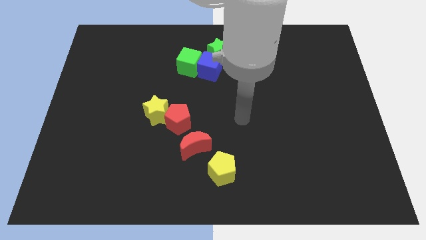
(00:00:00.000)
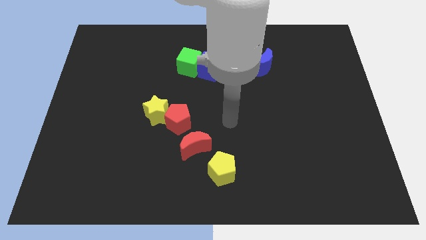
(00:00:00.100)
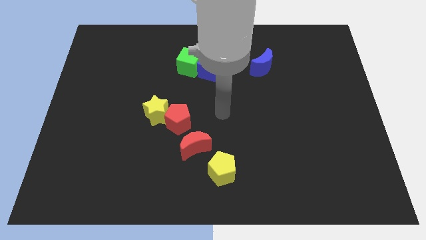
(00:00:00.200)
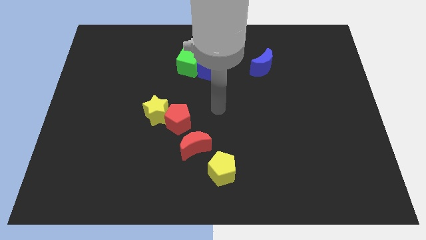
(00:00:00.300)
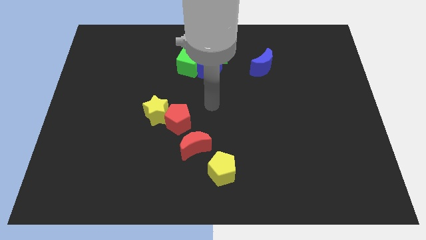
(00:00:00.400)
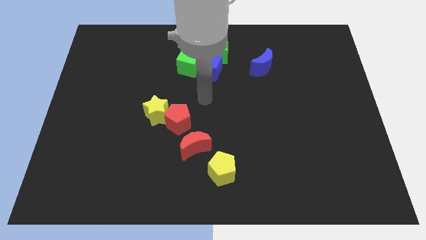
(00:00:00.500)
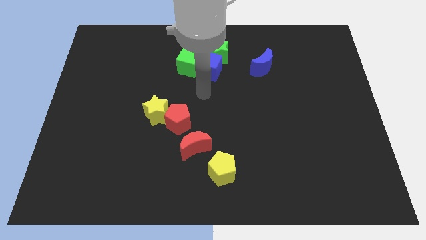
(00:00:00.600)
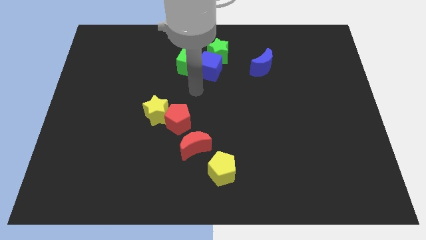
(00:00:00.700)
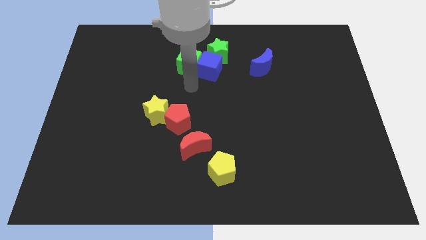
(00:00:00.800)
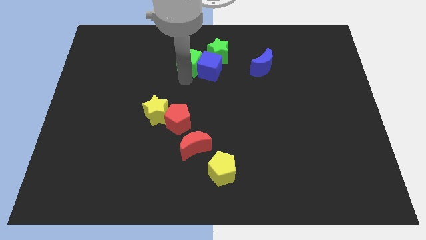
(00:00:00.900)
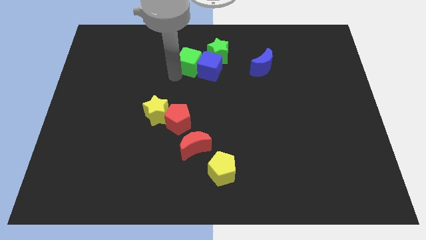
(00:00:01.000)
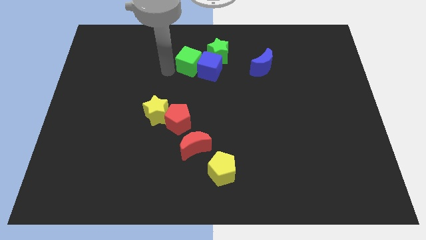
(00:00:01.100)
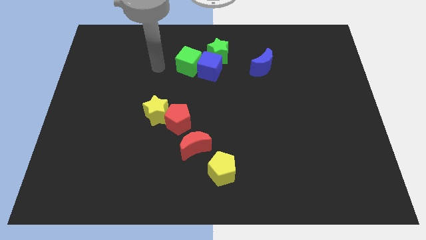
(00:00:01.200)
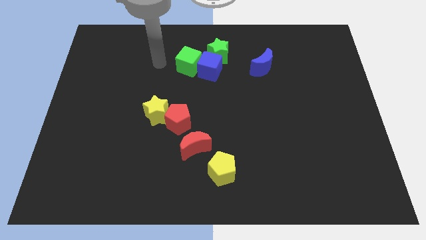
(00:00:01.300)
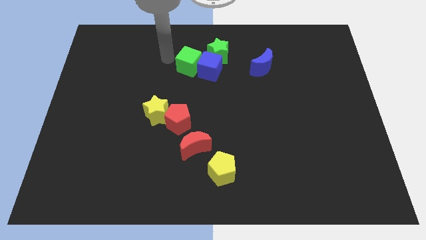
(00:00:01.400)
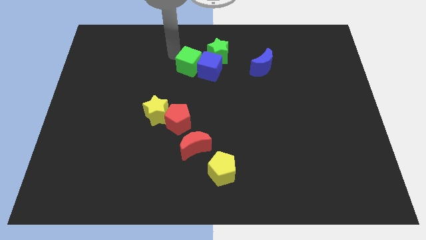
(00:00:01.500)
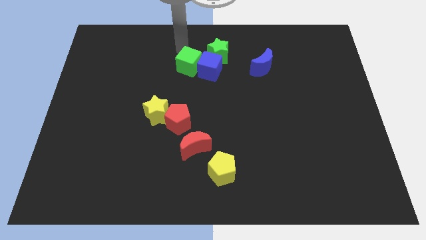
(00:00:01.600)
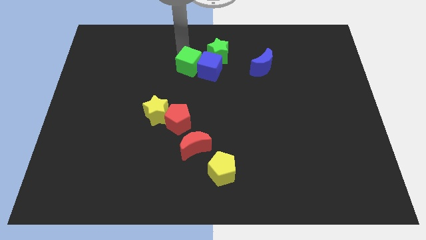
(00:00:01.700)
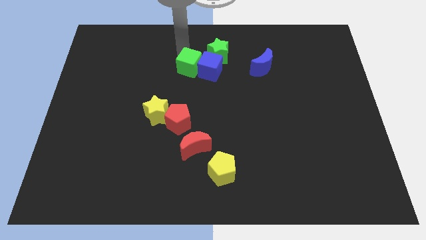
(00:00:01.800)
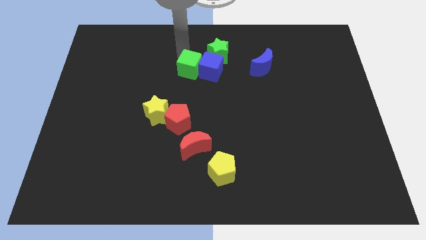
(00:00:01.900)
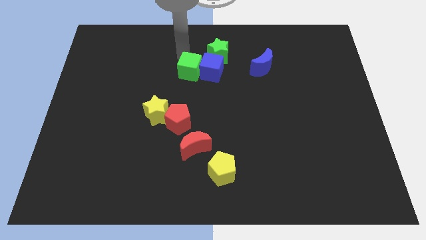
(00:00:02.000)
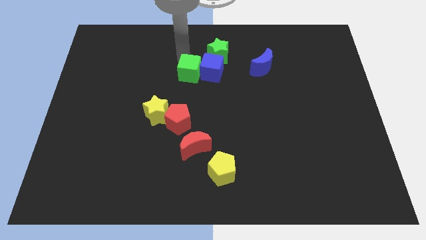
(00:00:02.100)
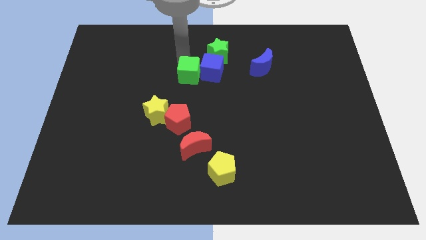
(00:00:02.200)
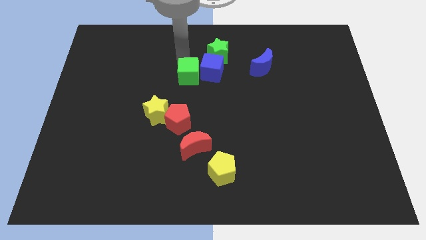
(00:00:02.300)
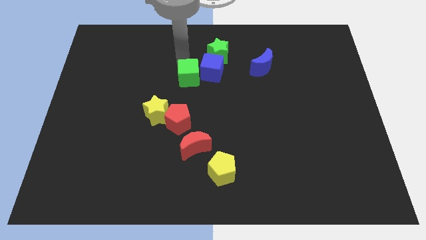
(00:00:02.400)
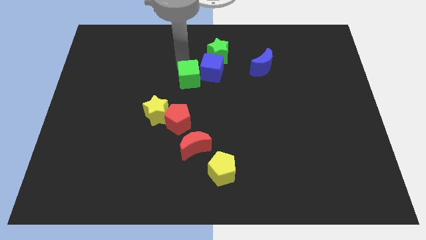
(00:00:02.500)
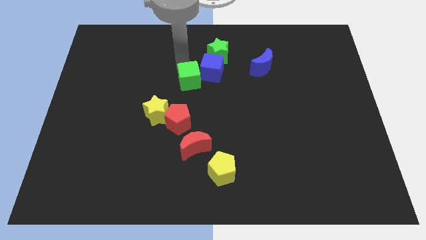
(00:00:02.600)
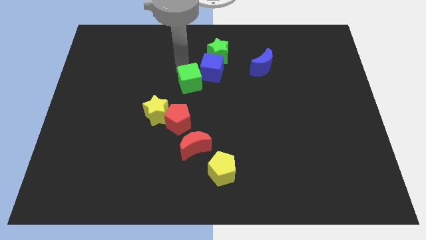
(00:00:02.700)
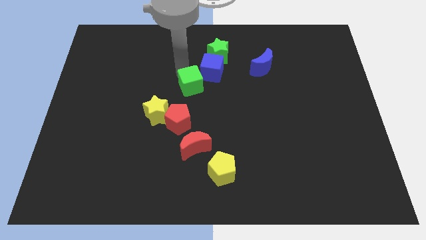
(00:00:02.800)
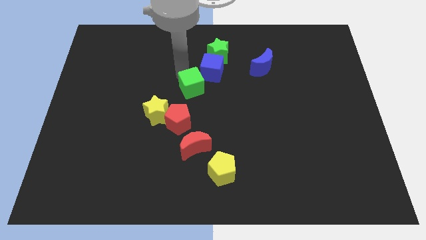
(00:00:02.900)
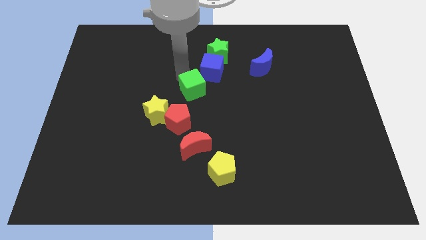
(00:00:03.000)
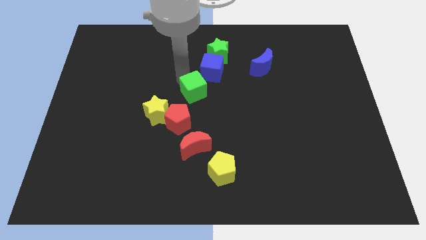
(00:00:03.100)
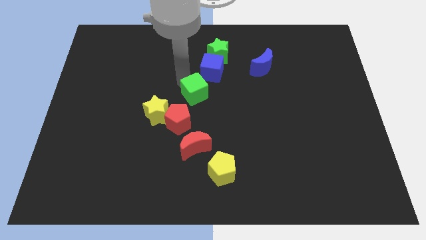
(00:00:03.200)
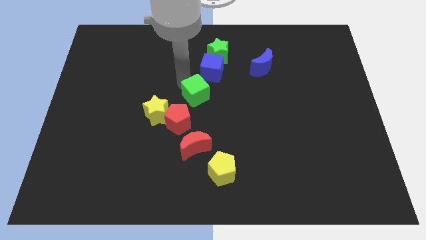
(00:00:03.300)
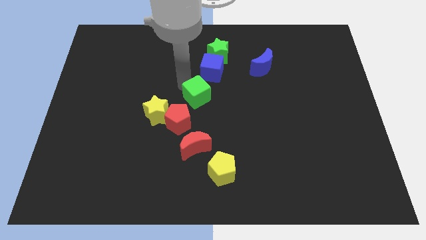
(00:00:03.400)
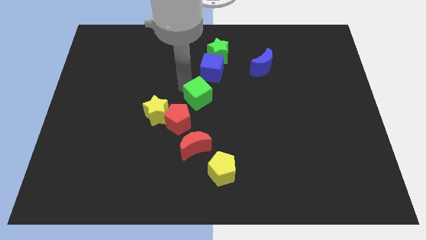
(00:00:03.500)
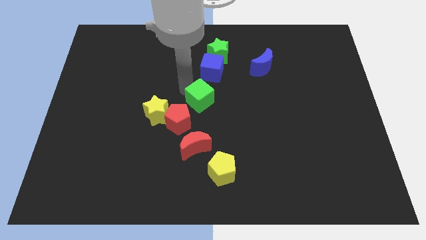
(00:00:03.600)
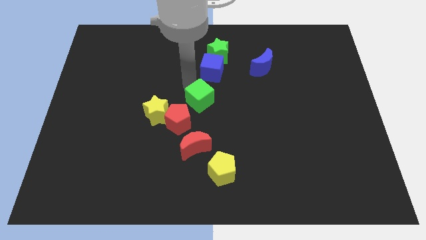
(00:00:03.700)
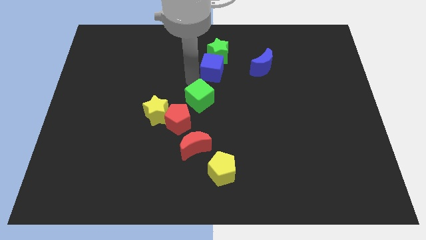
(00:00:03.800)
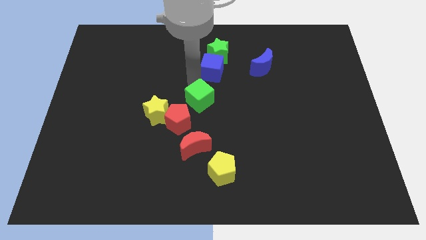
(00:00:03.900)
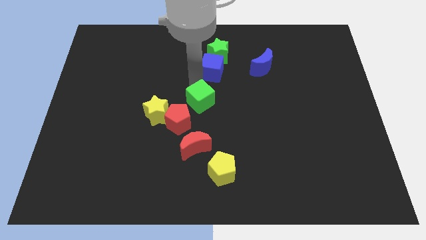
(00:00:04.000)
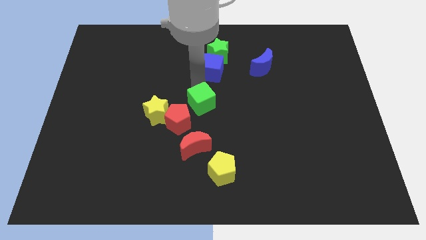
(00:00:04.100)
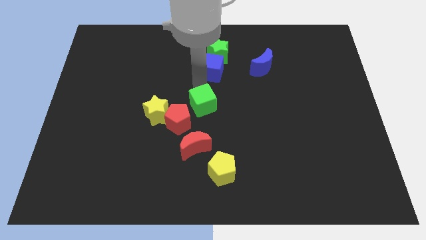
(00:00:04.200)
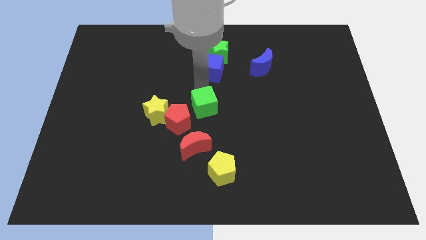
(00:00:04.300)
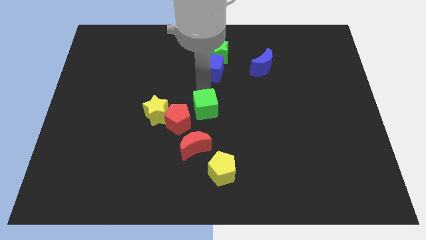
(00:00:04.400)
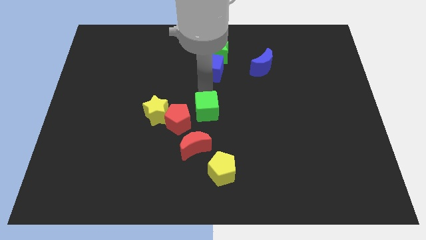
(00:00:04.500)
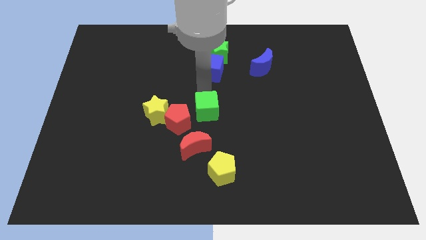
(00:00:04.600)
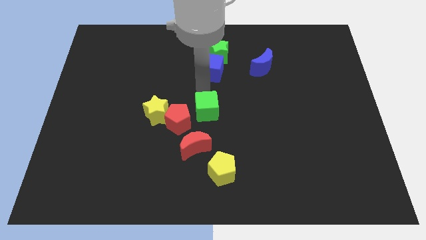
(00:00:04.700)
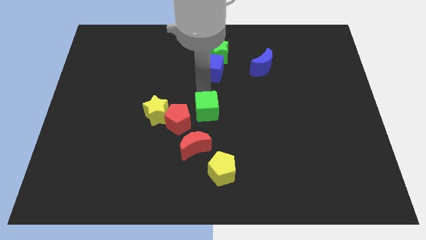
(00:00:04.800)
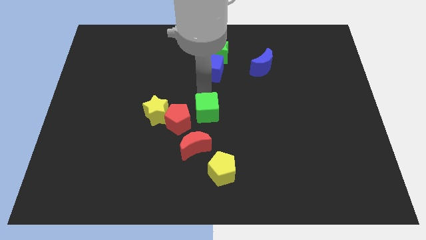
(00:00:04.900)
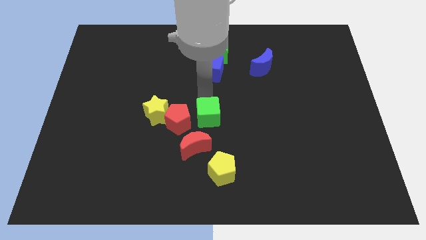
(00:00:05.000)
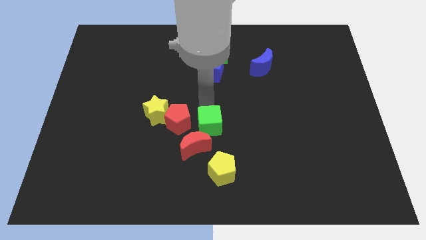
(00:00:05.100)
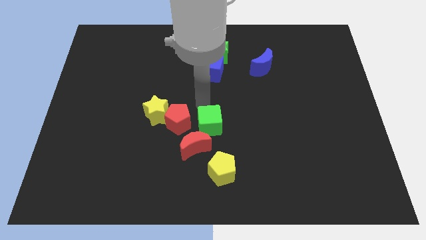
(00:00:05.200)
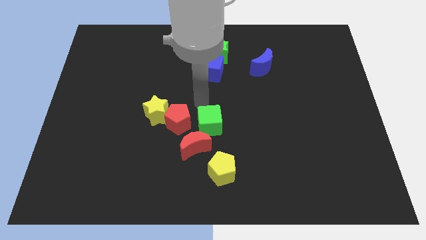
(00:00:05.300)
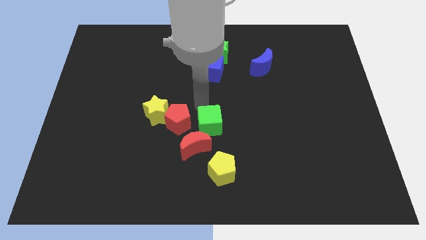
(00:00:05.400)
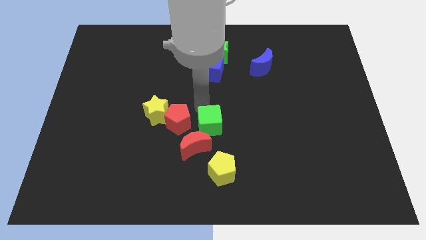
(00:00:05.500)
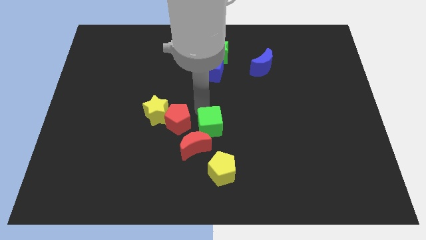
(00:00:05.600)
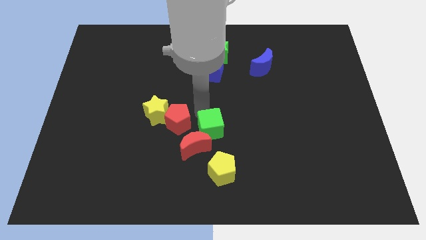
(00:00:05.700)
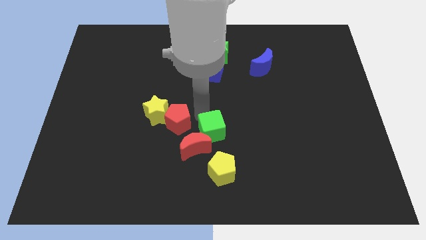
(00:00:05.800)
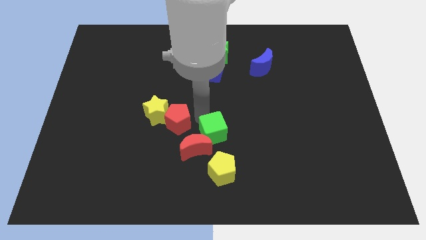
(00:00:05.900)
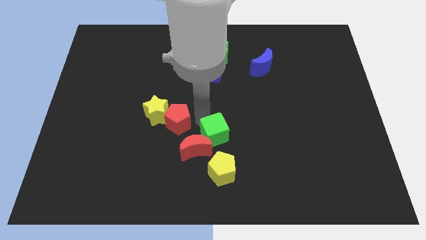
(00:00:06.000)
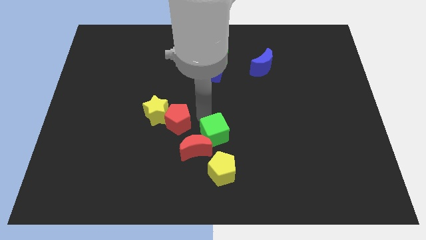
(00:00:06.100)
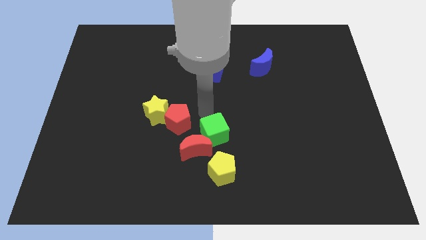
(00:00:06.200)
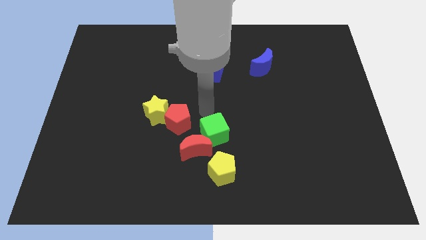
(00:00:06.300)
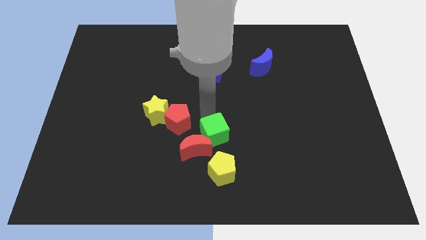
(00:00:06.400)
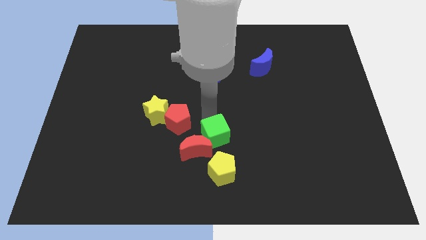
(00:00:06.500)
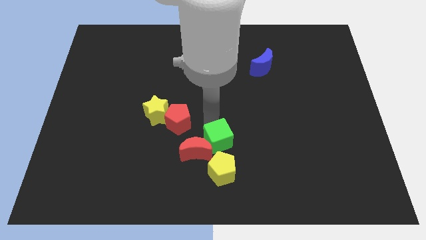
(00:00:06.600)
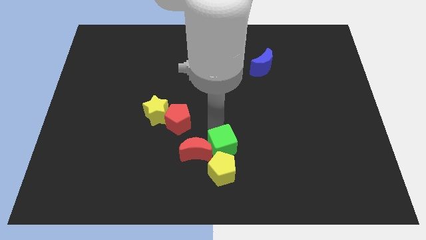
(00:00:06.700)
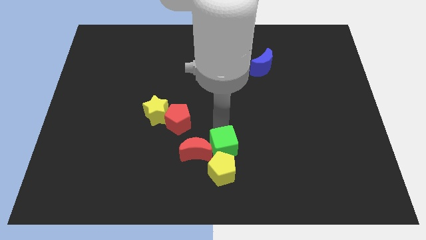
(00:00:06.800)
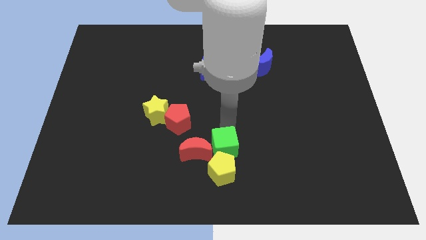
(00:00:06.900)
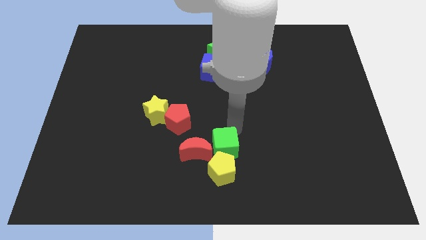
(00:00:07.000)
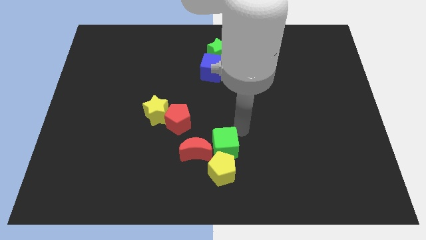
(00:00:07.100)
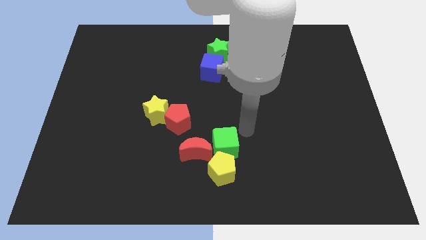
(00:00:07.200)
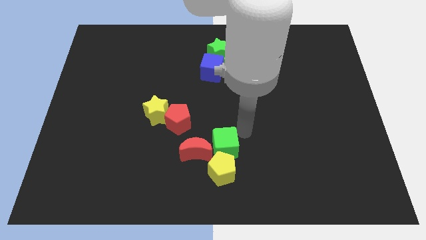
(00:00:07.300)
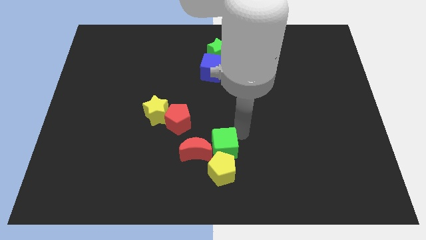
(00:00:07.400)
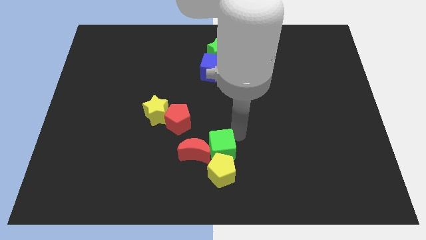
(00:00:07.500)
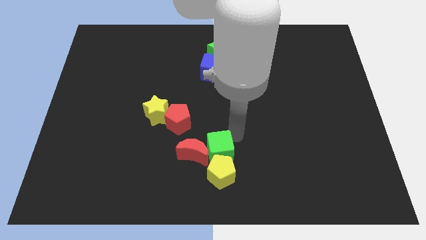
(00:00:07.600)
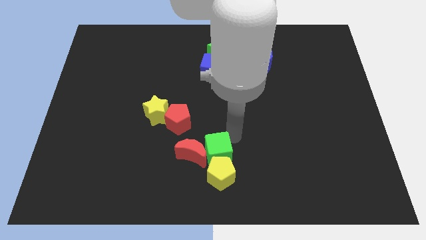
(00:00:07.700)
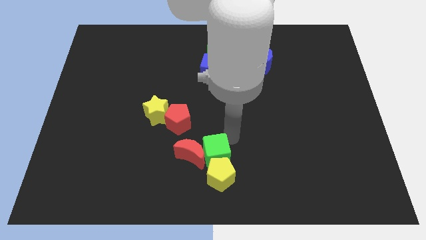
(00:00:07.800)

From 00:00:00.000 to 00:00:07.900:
move the green cube to the bottom side
